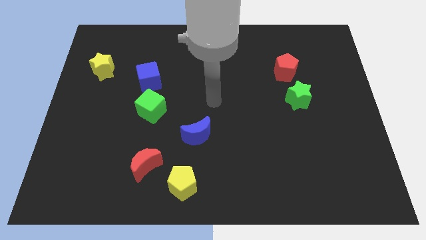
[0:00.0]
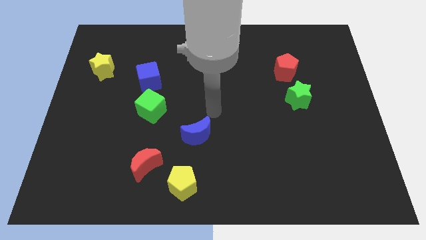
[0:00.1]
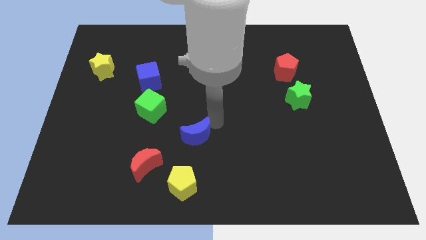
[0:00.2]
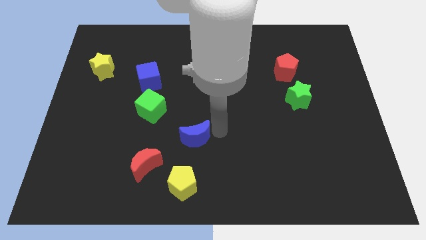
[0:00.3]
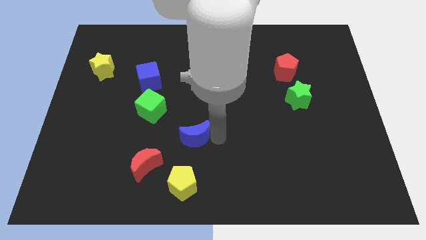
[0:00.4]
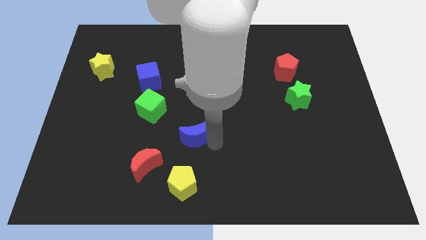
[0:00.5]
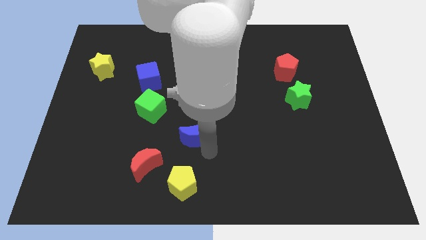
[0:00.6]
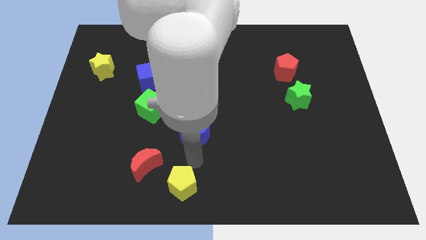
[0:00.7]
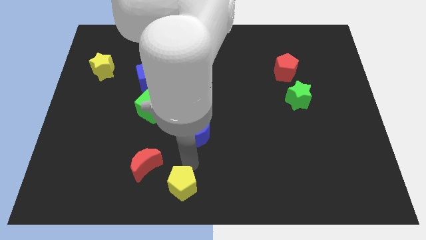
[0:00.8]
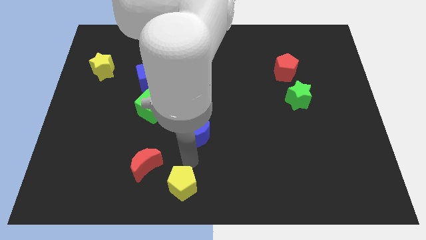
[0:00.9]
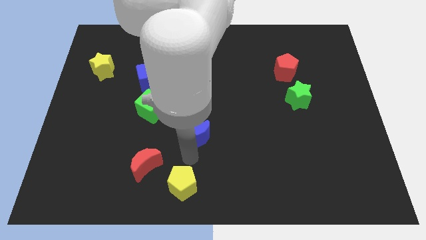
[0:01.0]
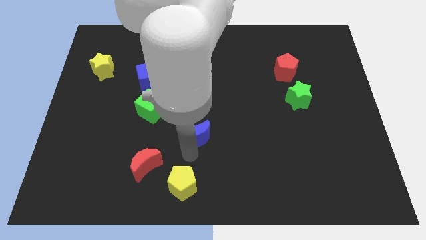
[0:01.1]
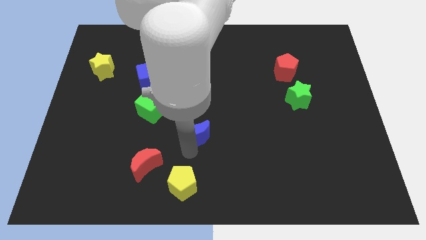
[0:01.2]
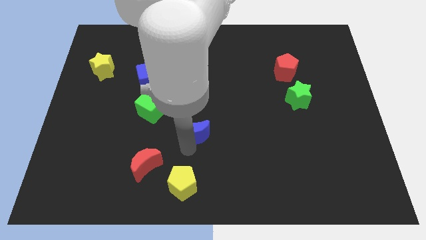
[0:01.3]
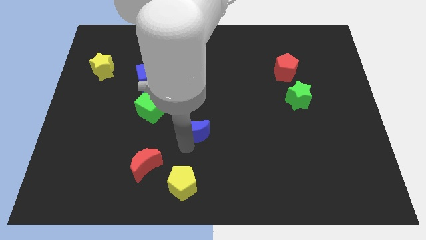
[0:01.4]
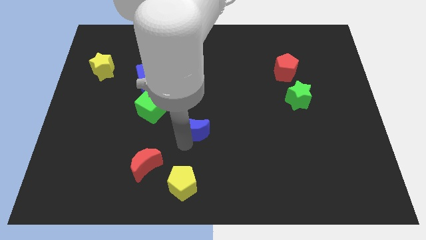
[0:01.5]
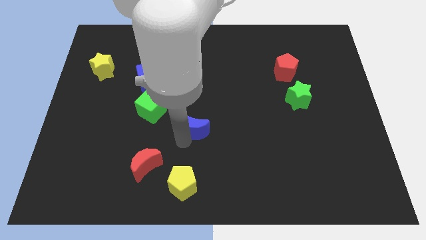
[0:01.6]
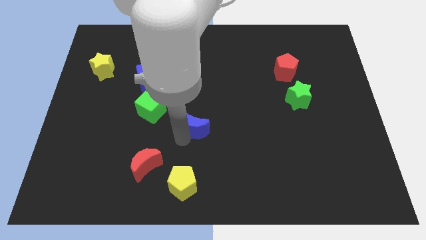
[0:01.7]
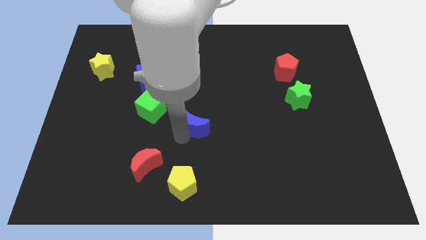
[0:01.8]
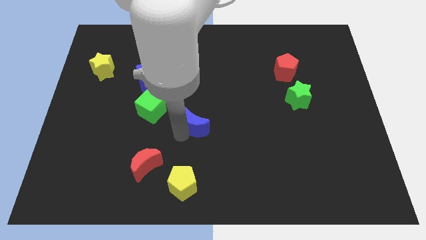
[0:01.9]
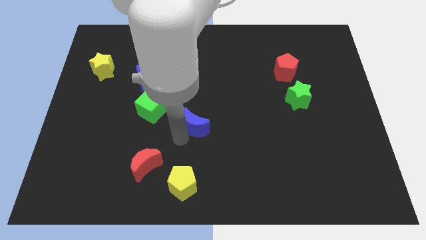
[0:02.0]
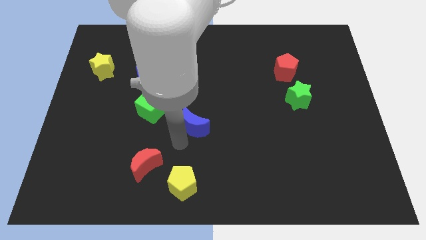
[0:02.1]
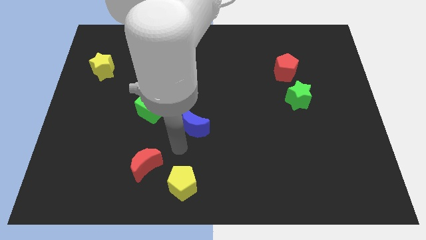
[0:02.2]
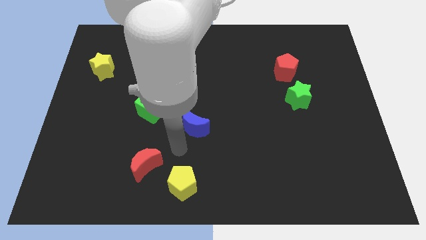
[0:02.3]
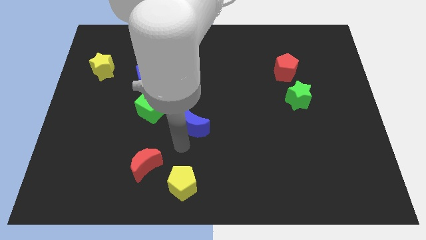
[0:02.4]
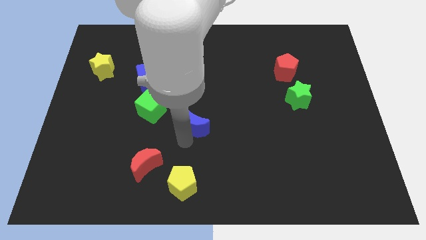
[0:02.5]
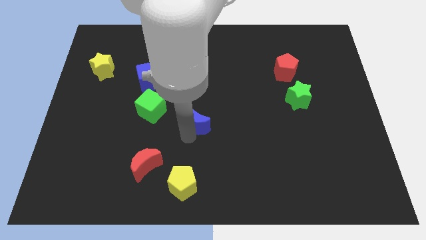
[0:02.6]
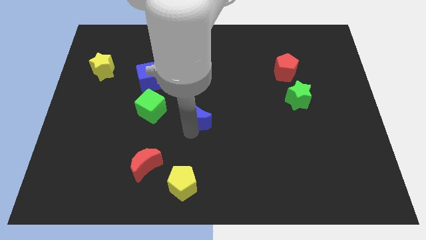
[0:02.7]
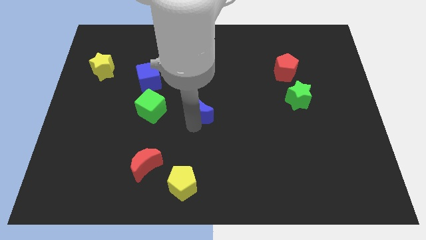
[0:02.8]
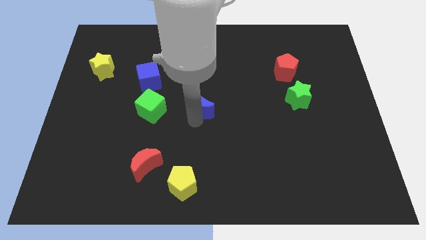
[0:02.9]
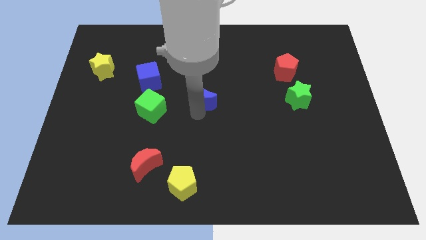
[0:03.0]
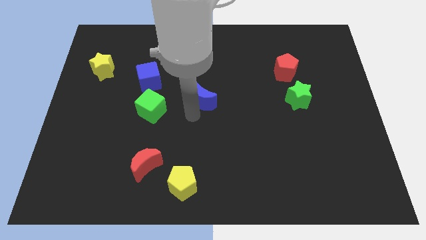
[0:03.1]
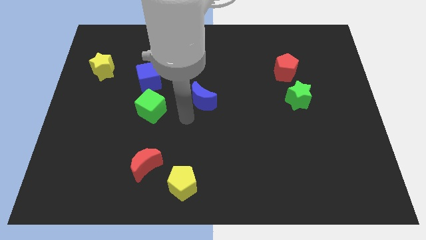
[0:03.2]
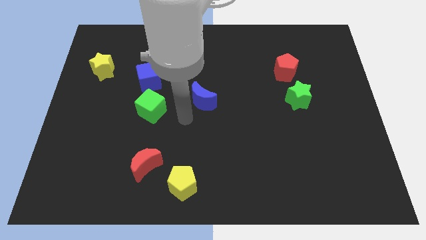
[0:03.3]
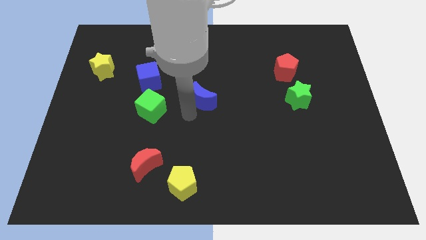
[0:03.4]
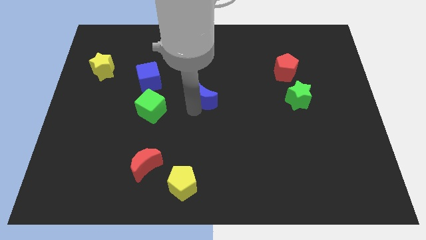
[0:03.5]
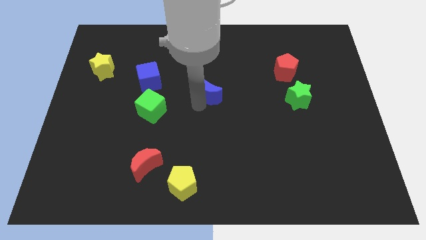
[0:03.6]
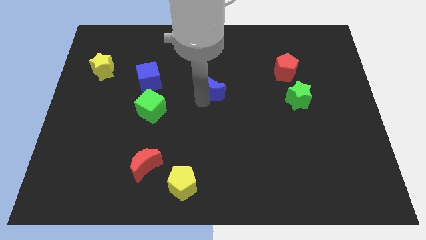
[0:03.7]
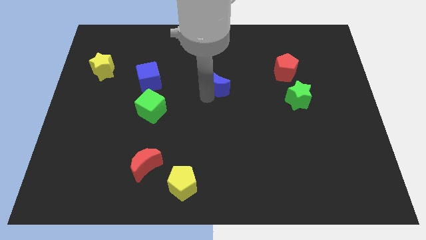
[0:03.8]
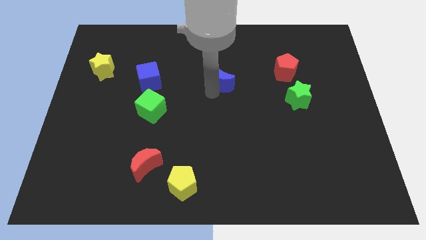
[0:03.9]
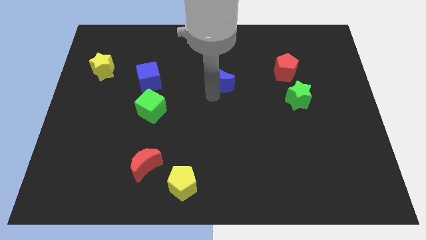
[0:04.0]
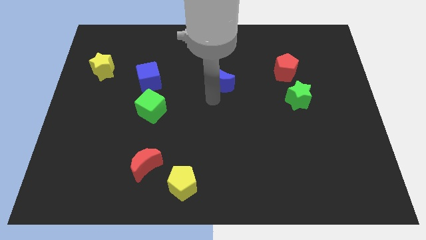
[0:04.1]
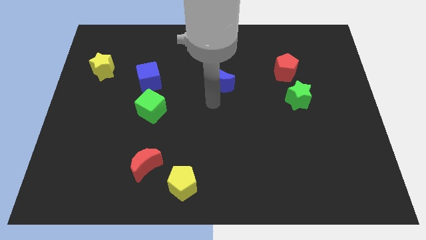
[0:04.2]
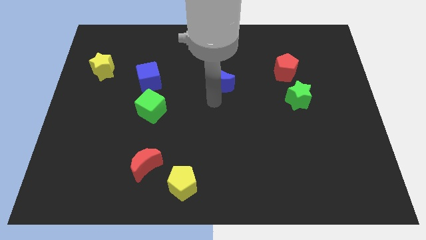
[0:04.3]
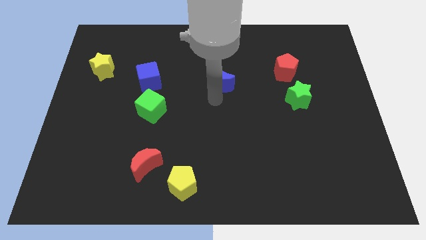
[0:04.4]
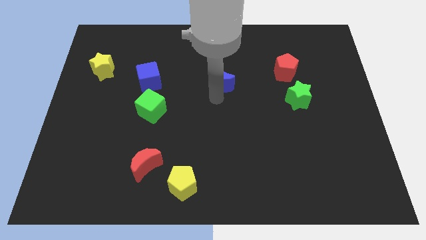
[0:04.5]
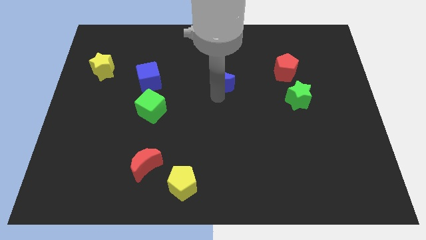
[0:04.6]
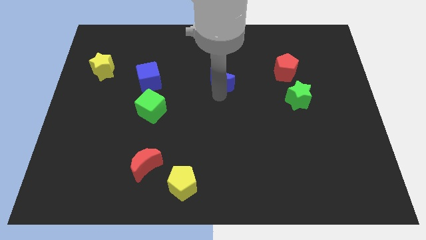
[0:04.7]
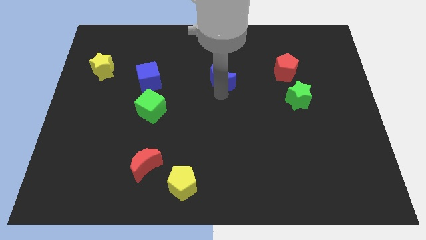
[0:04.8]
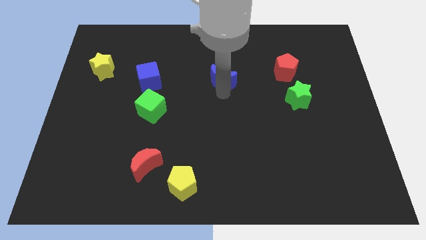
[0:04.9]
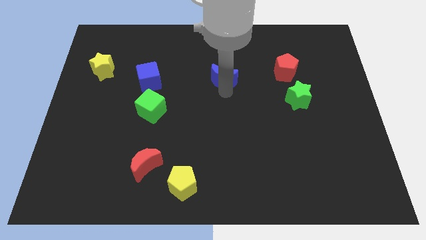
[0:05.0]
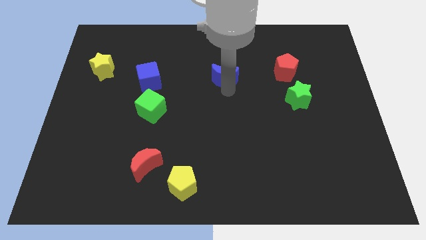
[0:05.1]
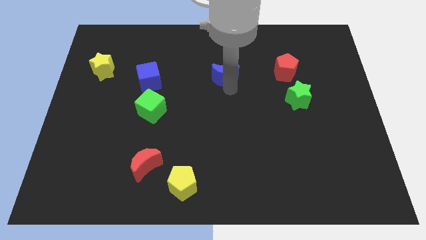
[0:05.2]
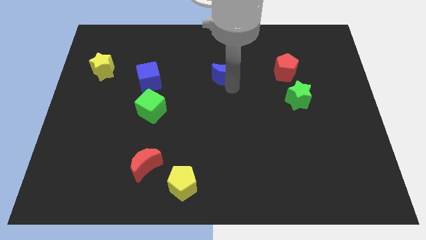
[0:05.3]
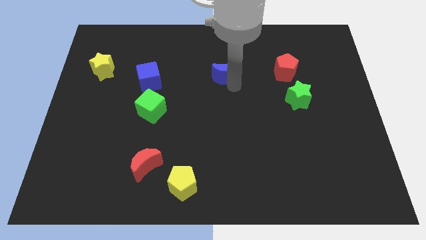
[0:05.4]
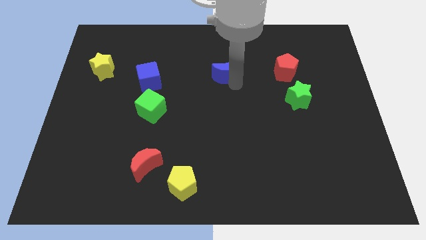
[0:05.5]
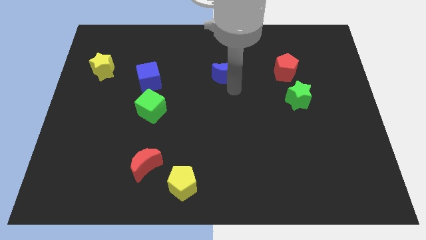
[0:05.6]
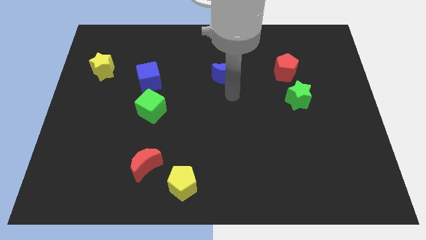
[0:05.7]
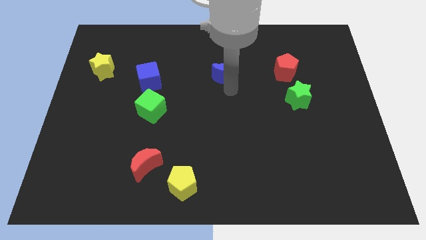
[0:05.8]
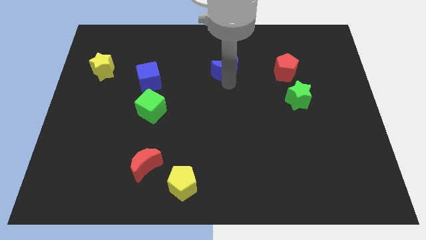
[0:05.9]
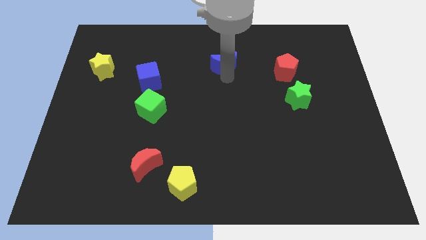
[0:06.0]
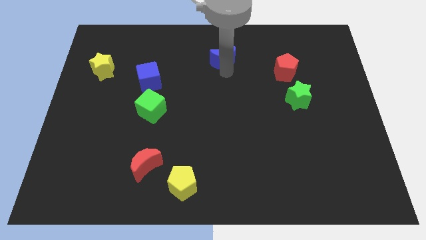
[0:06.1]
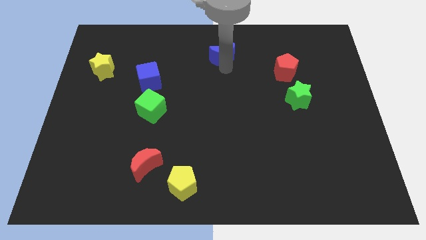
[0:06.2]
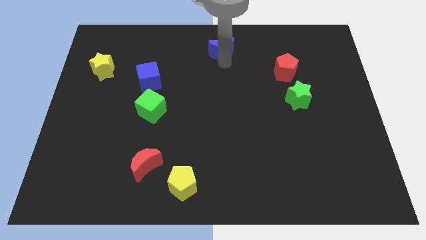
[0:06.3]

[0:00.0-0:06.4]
push the blue moon to the towards your base

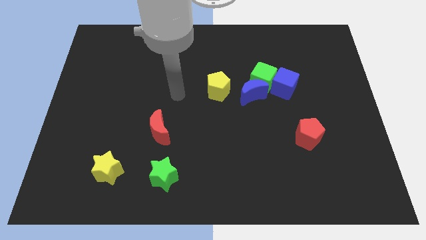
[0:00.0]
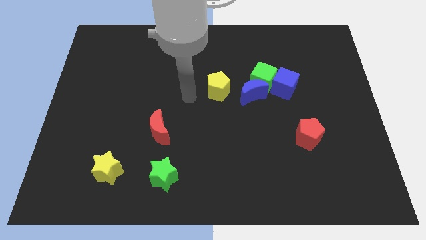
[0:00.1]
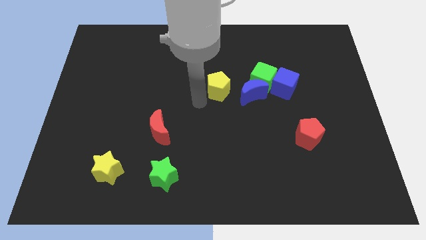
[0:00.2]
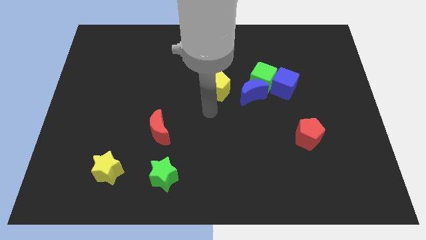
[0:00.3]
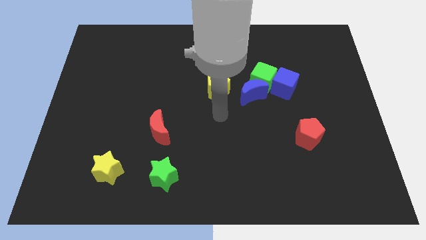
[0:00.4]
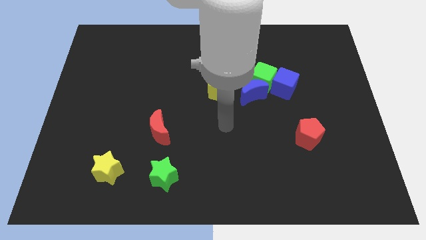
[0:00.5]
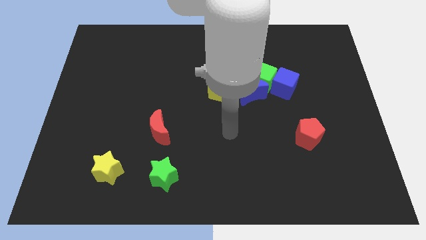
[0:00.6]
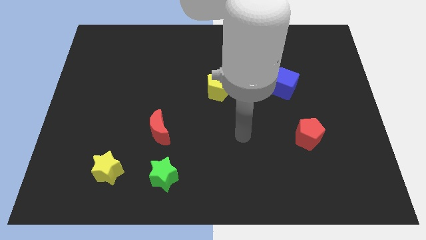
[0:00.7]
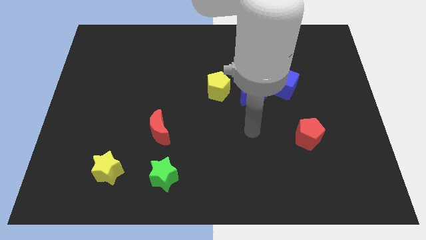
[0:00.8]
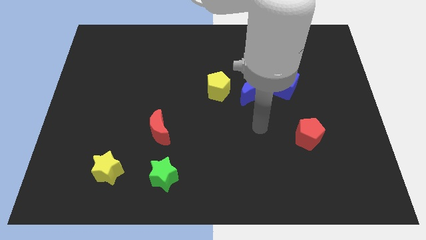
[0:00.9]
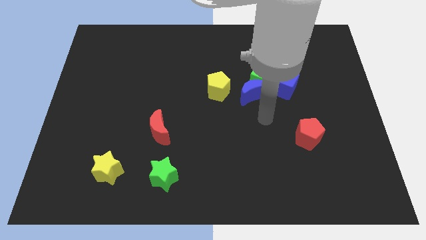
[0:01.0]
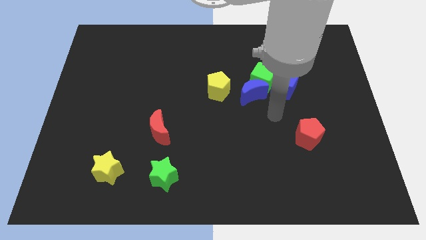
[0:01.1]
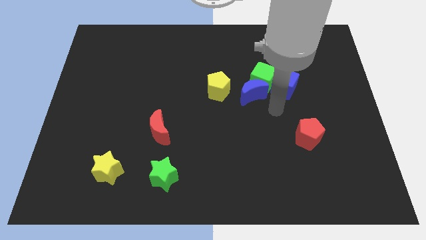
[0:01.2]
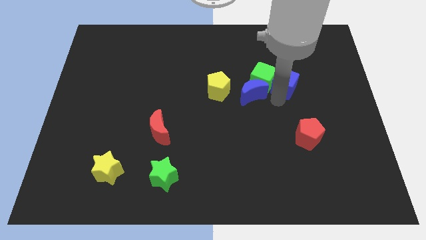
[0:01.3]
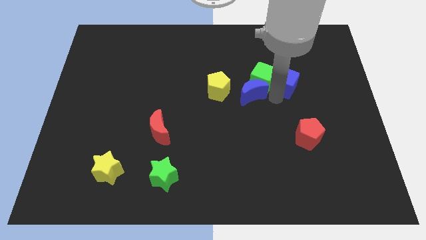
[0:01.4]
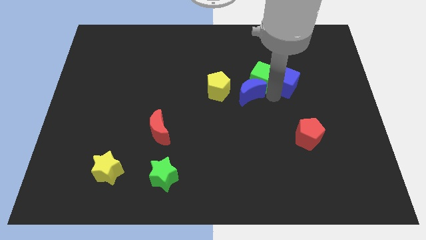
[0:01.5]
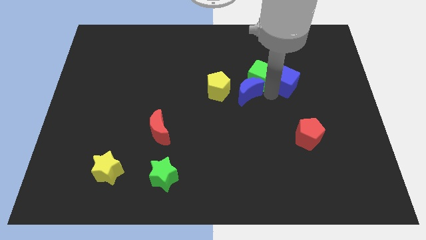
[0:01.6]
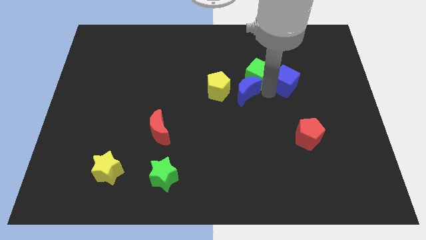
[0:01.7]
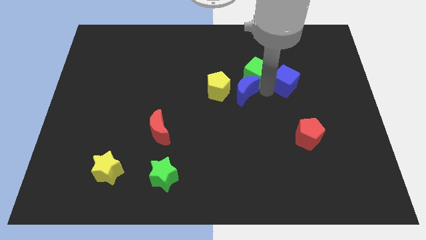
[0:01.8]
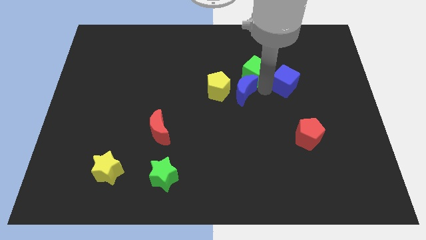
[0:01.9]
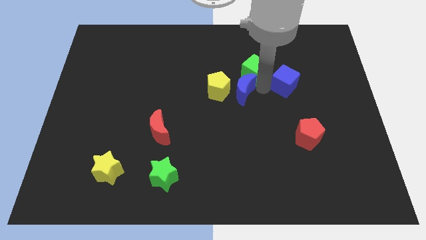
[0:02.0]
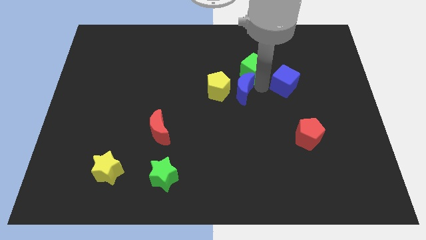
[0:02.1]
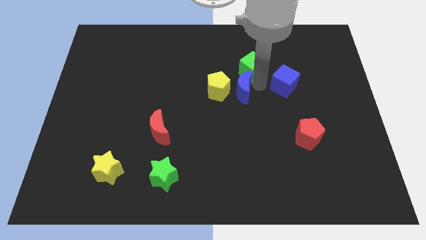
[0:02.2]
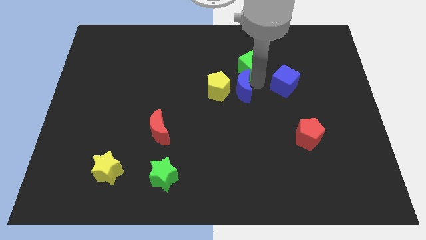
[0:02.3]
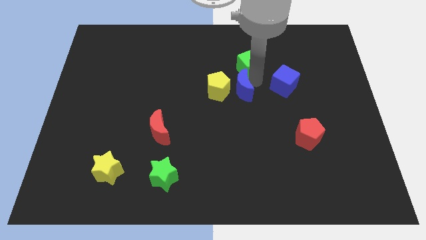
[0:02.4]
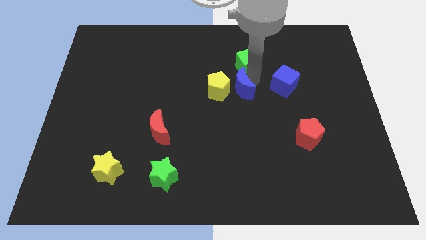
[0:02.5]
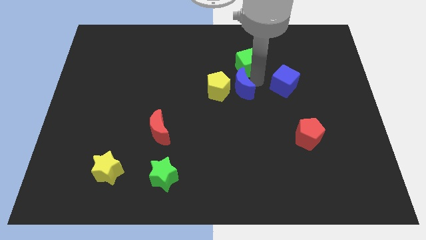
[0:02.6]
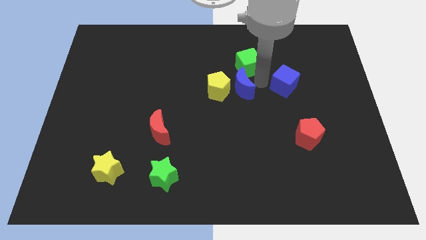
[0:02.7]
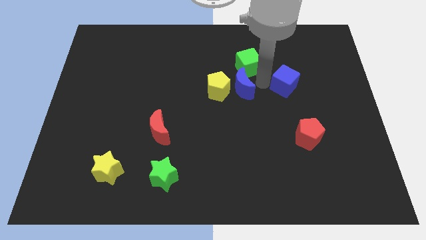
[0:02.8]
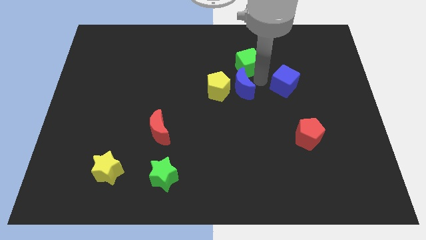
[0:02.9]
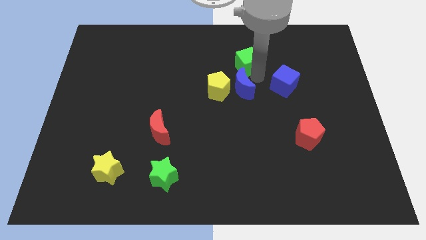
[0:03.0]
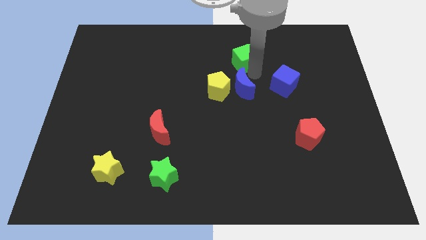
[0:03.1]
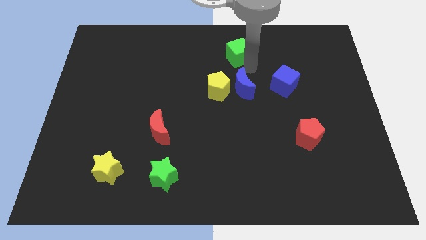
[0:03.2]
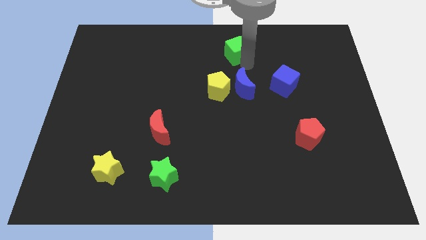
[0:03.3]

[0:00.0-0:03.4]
push the green cube to the top side
